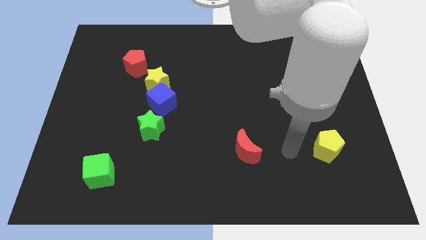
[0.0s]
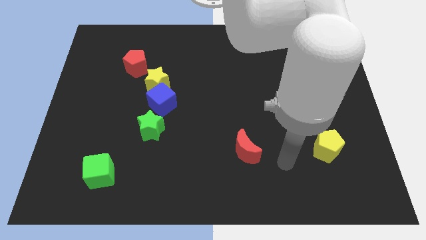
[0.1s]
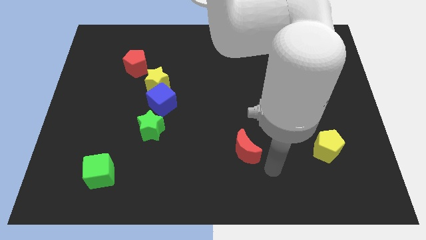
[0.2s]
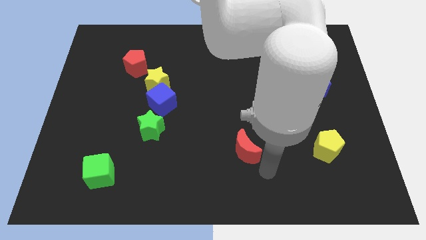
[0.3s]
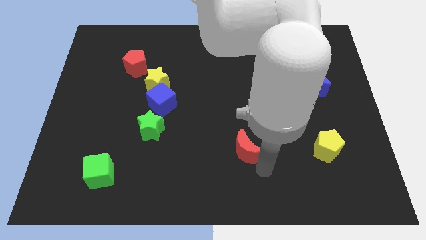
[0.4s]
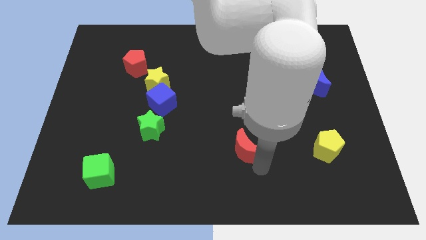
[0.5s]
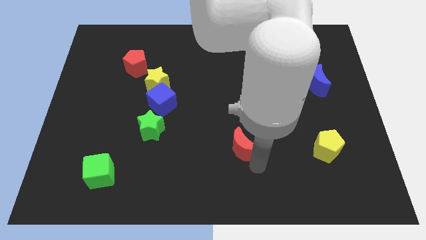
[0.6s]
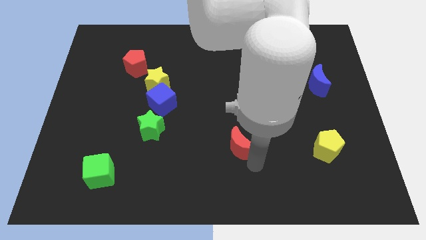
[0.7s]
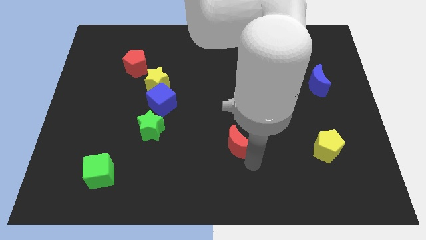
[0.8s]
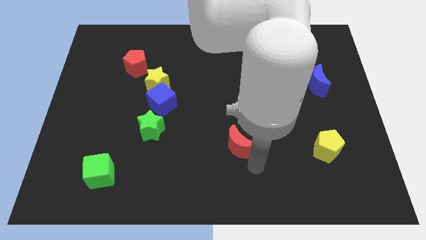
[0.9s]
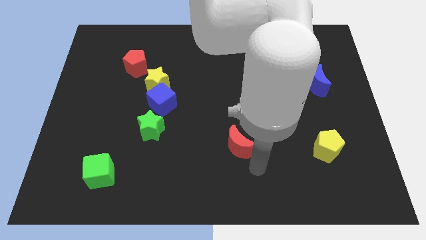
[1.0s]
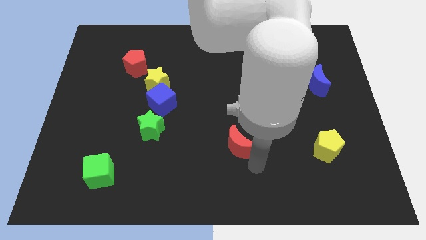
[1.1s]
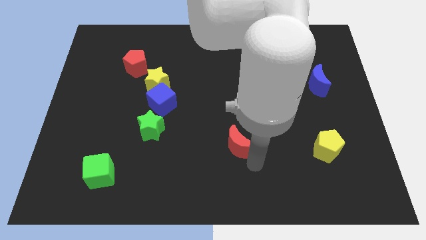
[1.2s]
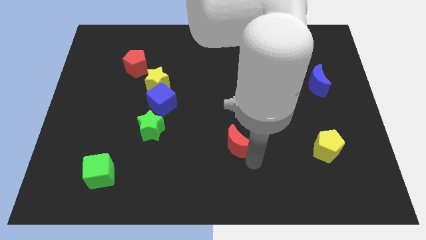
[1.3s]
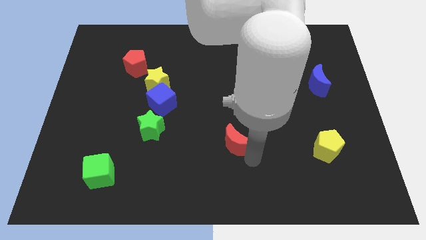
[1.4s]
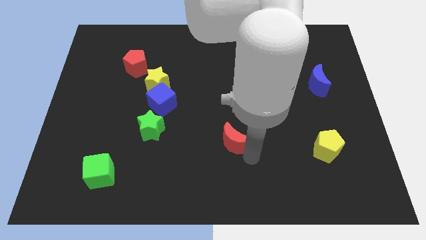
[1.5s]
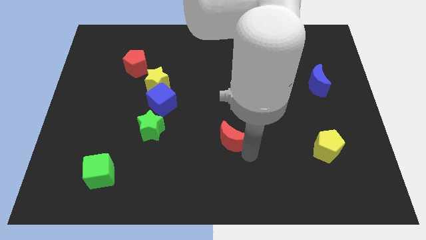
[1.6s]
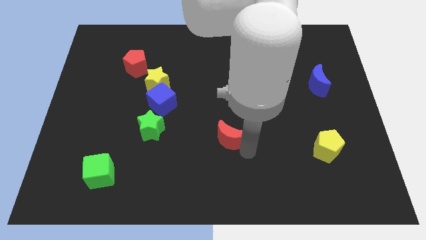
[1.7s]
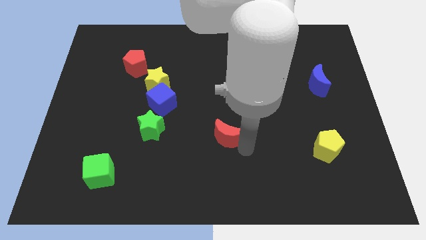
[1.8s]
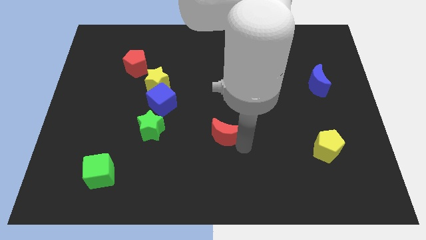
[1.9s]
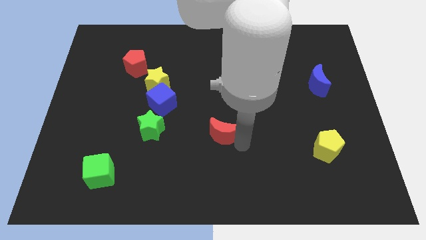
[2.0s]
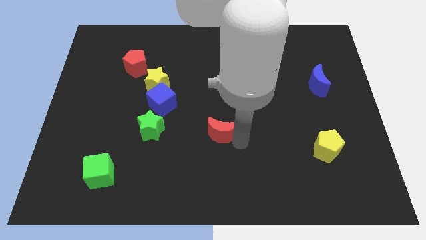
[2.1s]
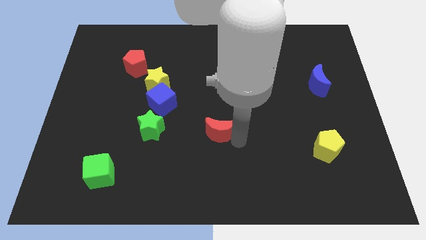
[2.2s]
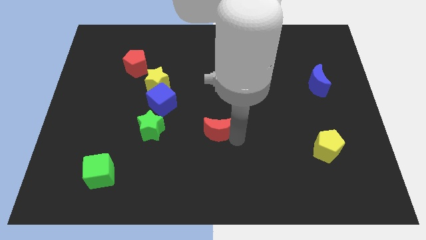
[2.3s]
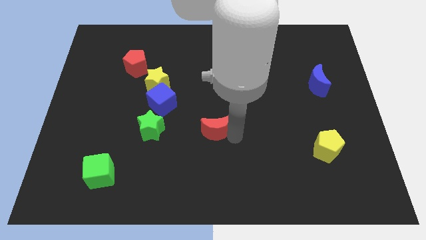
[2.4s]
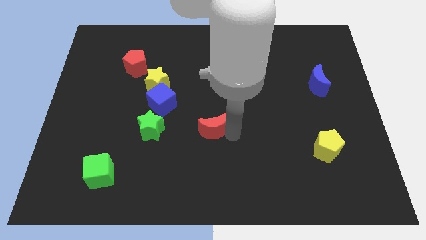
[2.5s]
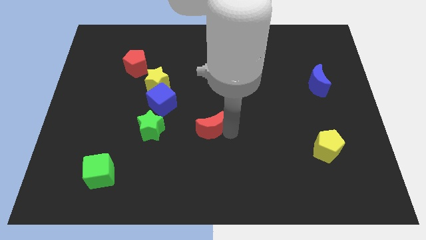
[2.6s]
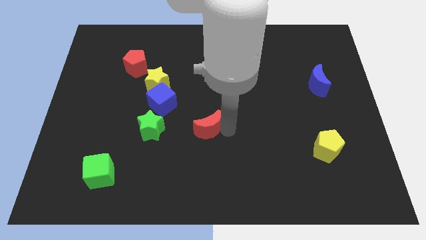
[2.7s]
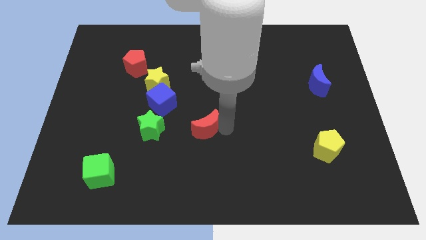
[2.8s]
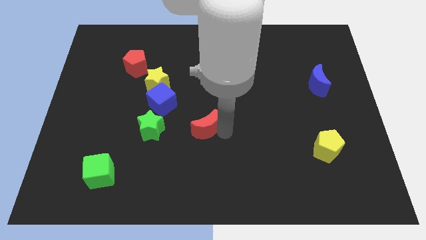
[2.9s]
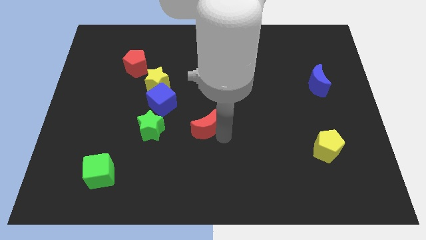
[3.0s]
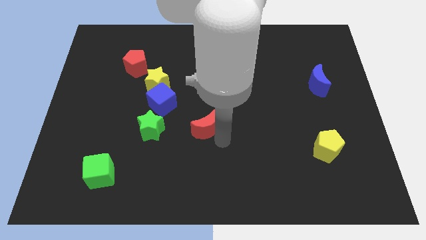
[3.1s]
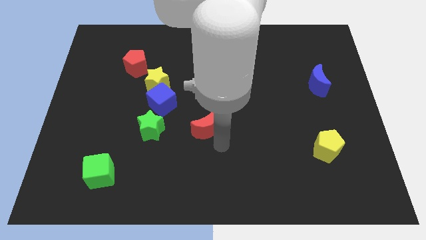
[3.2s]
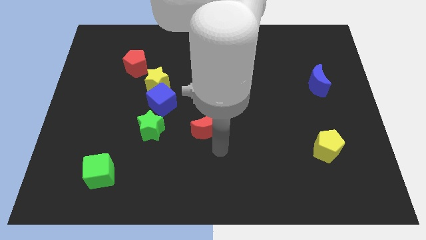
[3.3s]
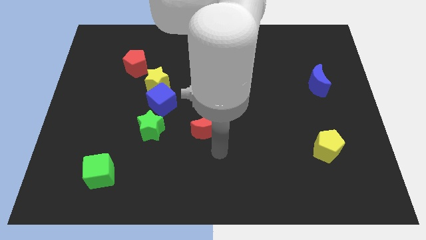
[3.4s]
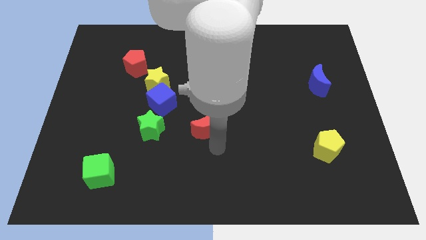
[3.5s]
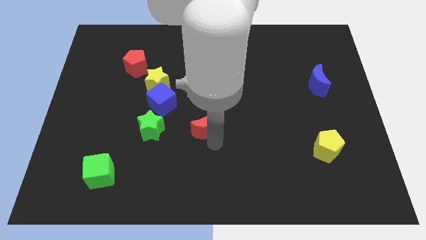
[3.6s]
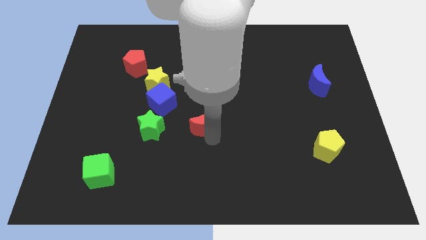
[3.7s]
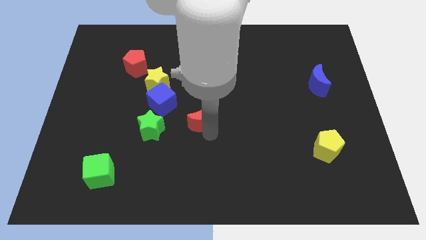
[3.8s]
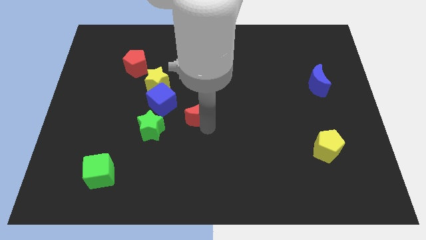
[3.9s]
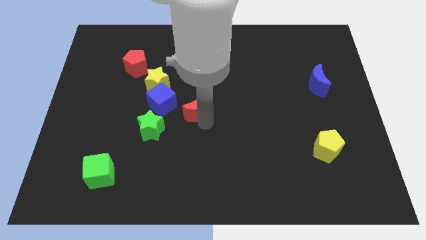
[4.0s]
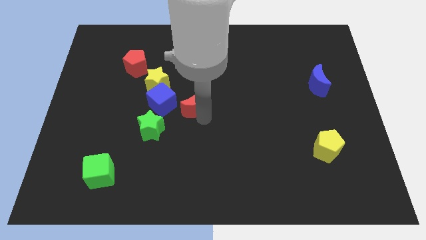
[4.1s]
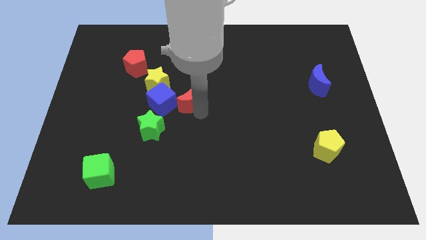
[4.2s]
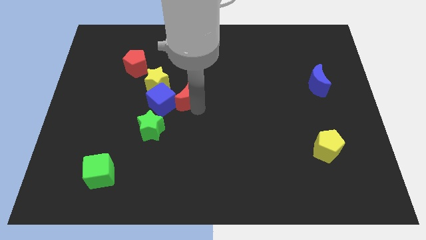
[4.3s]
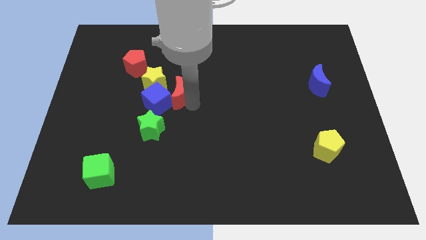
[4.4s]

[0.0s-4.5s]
move the red moon upwards and left

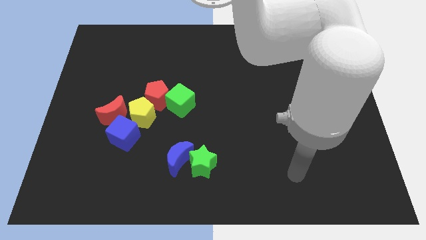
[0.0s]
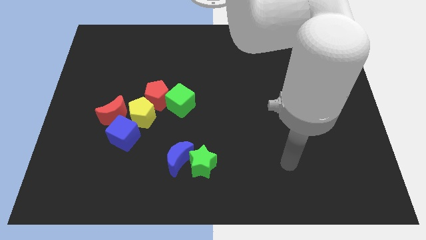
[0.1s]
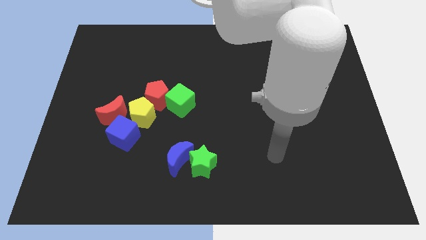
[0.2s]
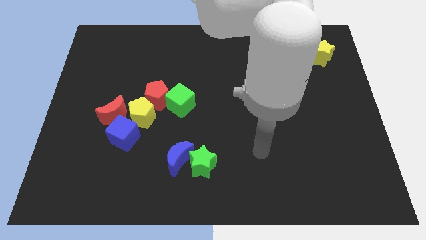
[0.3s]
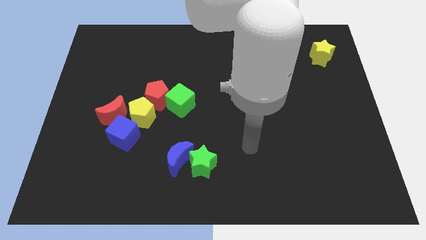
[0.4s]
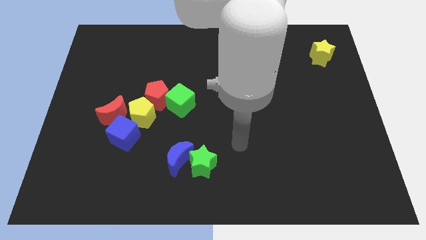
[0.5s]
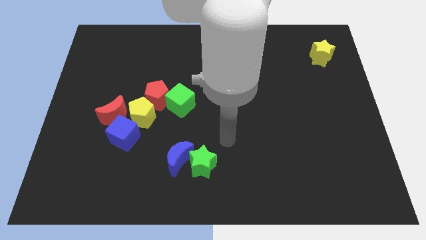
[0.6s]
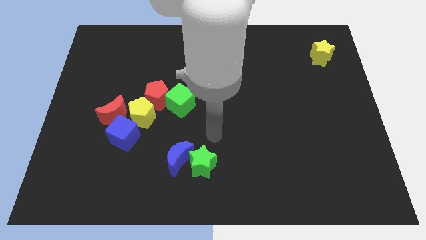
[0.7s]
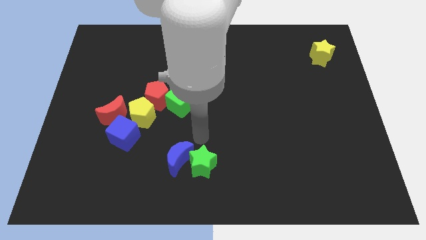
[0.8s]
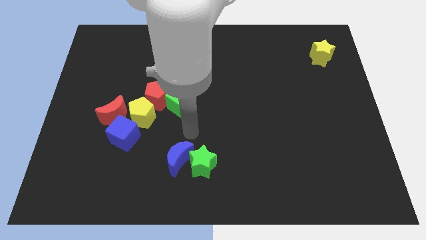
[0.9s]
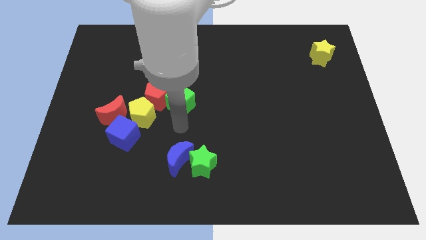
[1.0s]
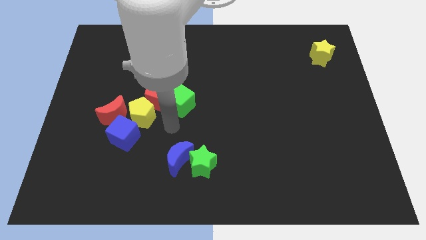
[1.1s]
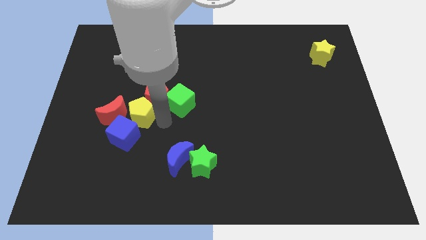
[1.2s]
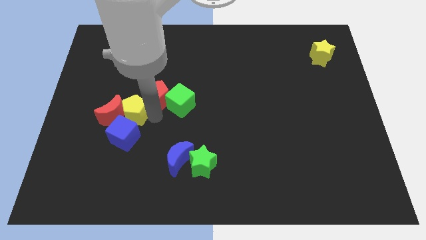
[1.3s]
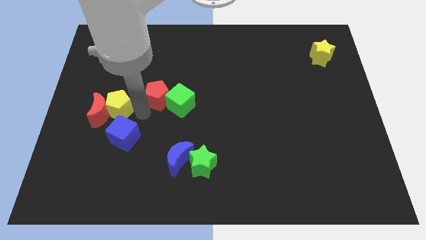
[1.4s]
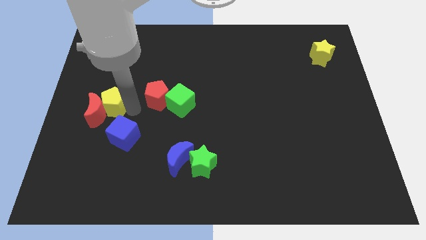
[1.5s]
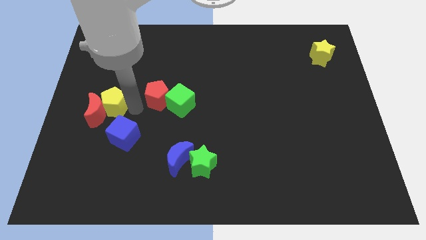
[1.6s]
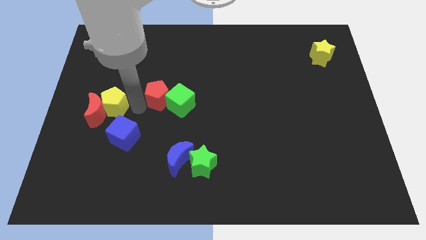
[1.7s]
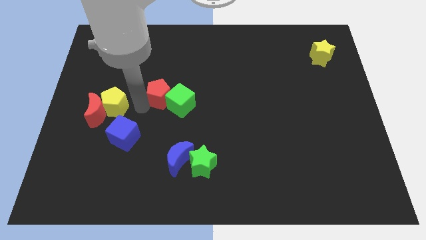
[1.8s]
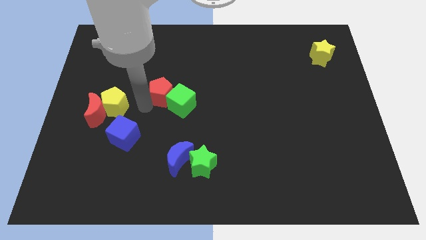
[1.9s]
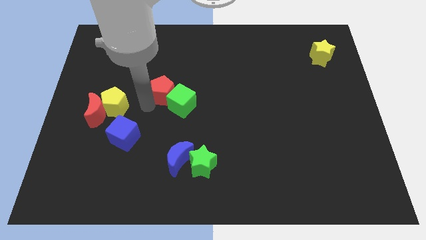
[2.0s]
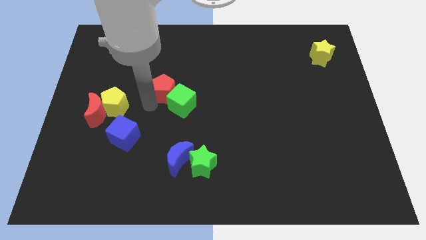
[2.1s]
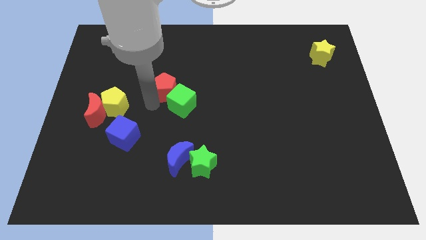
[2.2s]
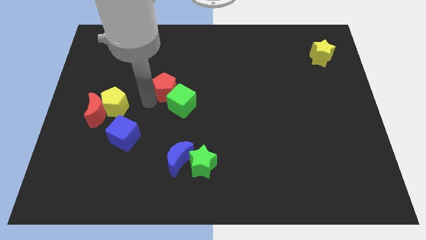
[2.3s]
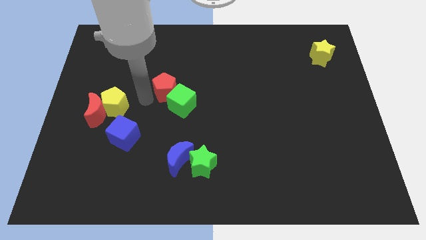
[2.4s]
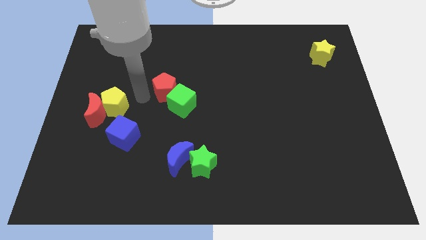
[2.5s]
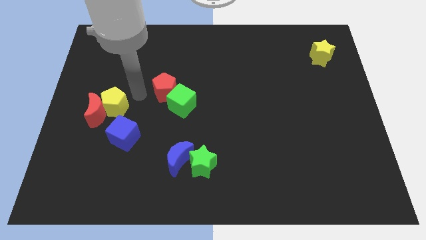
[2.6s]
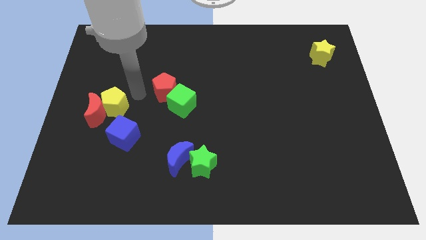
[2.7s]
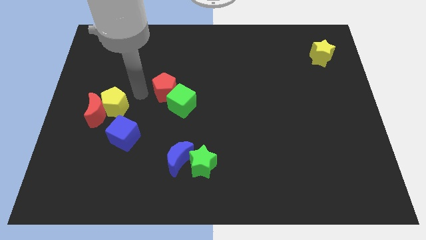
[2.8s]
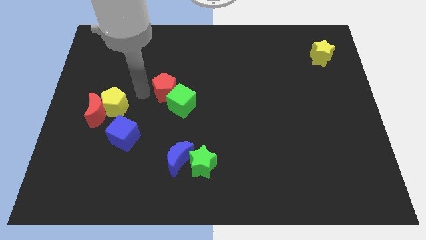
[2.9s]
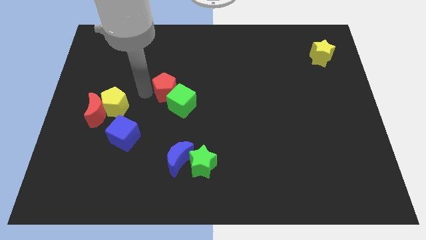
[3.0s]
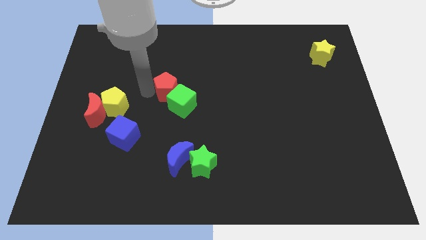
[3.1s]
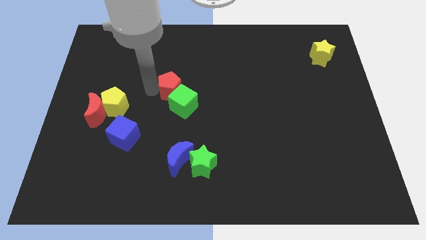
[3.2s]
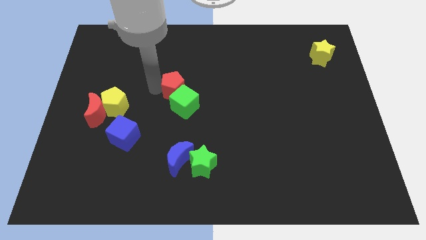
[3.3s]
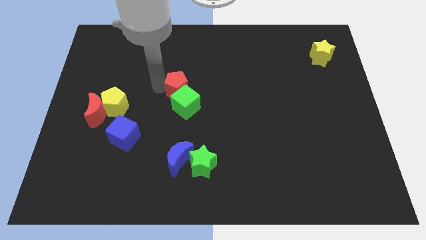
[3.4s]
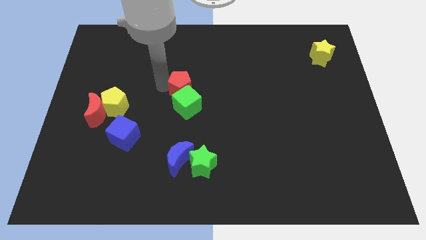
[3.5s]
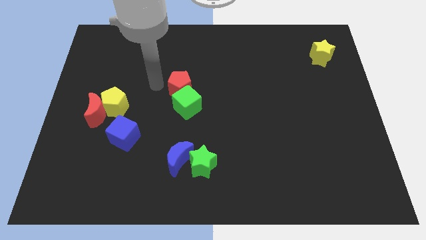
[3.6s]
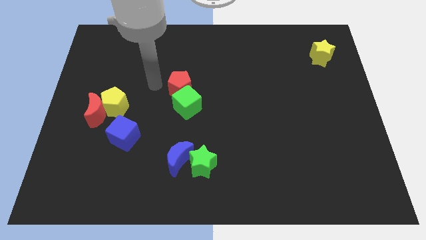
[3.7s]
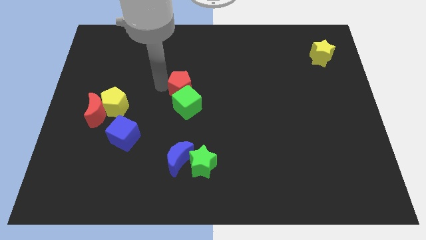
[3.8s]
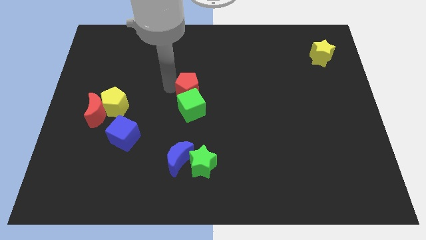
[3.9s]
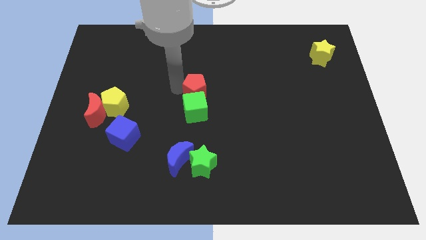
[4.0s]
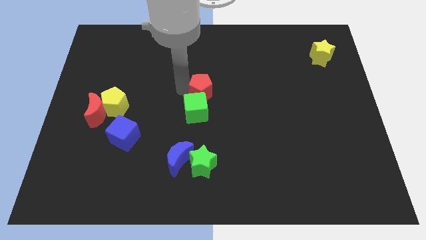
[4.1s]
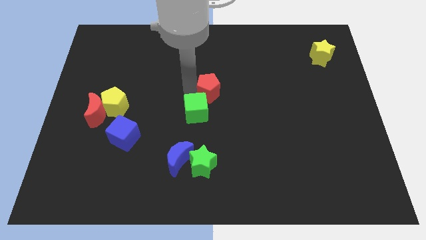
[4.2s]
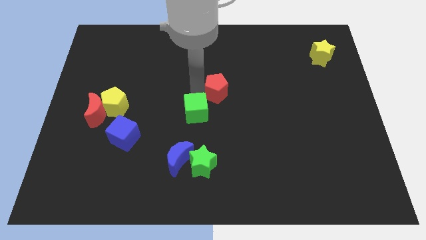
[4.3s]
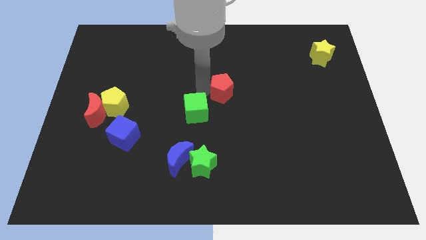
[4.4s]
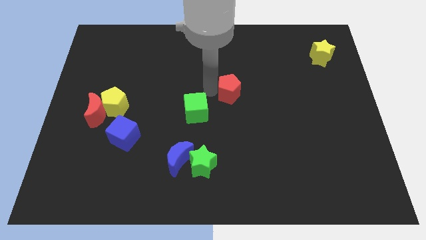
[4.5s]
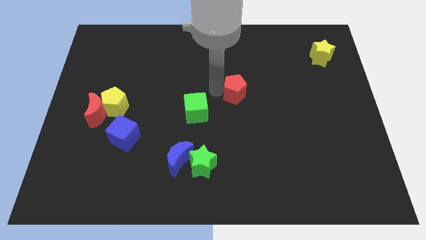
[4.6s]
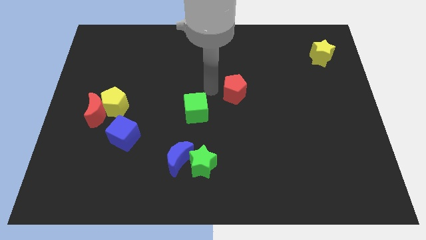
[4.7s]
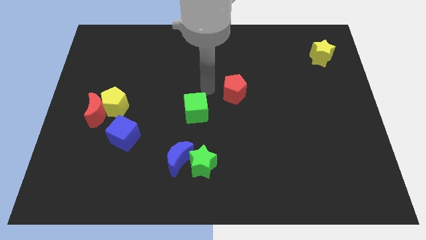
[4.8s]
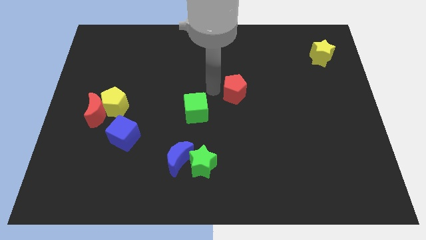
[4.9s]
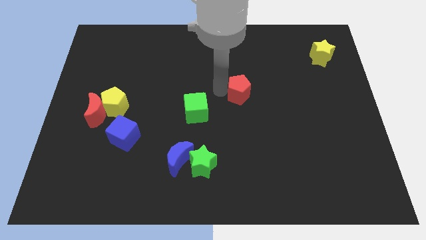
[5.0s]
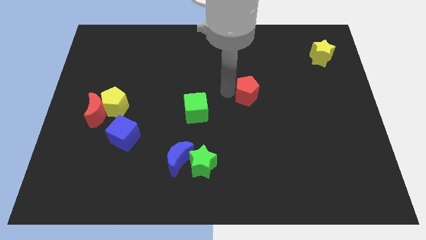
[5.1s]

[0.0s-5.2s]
push the red pentagon right
